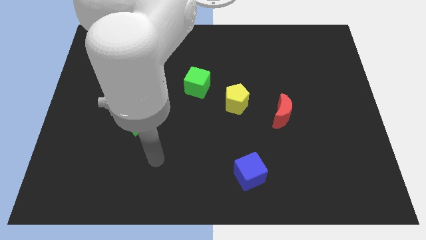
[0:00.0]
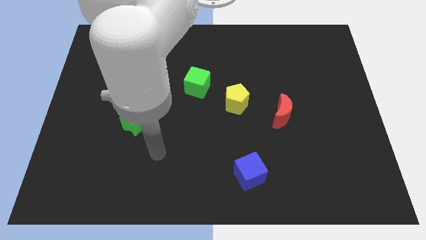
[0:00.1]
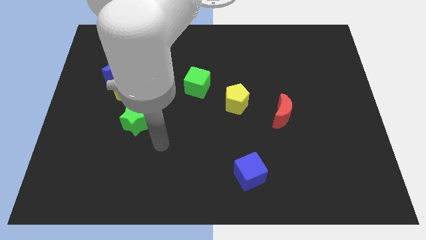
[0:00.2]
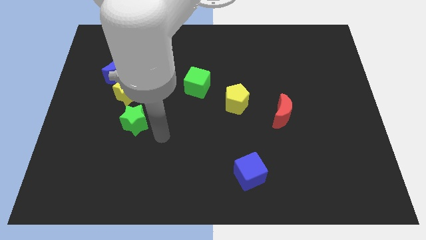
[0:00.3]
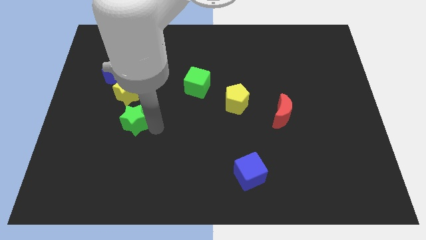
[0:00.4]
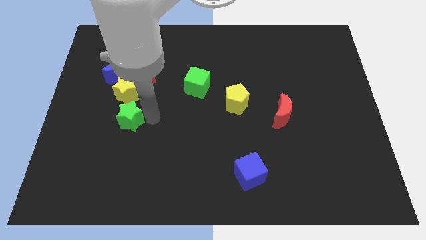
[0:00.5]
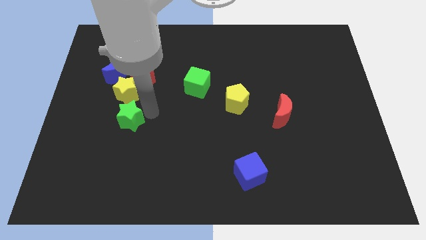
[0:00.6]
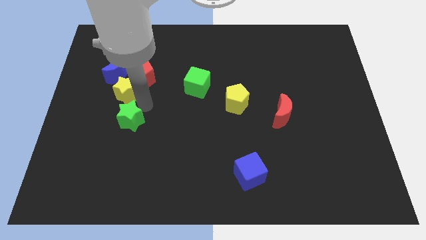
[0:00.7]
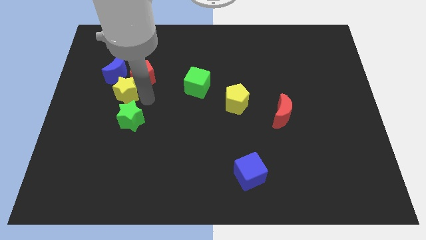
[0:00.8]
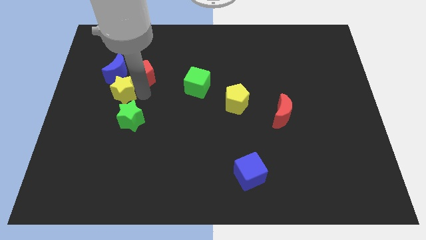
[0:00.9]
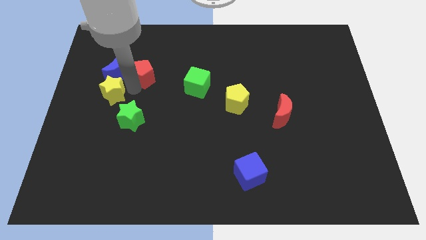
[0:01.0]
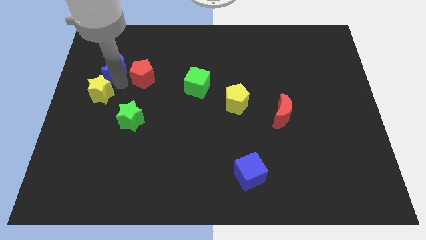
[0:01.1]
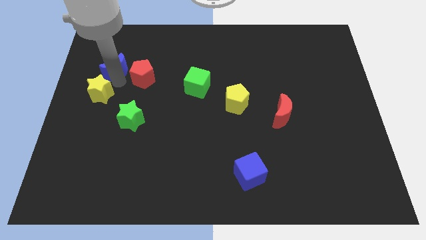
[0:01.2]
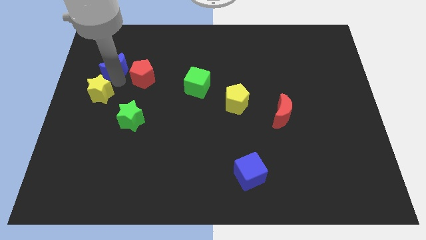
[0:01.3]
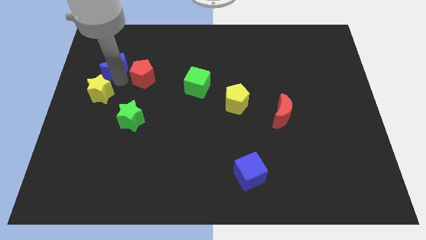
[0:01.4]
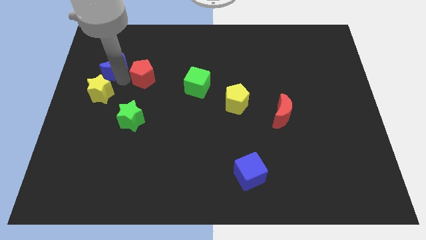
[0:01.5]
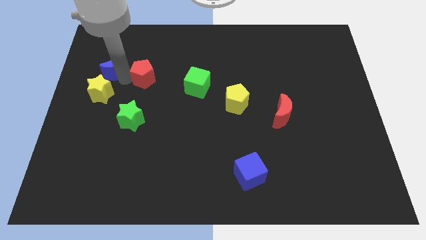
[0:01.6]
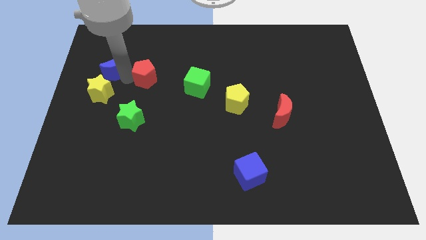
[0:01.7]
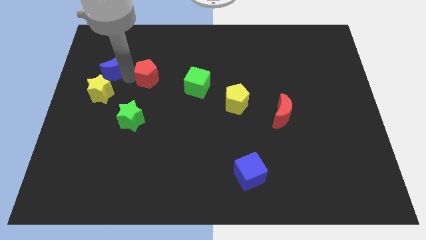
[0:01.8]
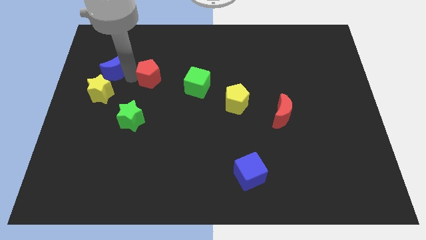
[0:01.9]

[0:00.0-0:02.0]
move the red pentagon away from the yellow star and blue moon

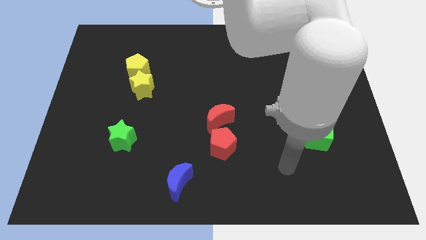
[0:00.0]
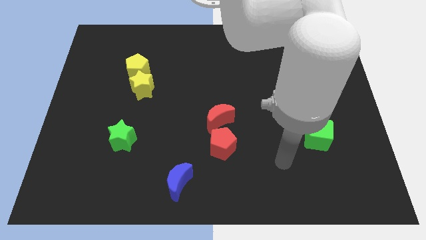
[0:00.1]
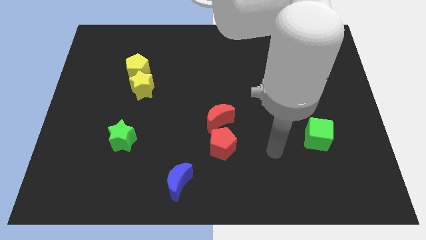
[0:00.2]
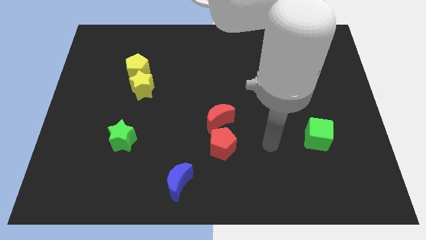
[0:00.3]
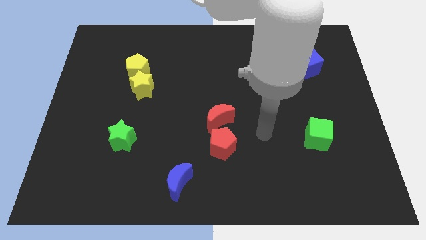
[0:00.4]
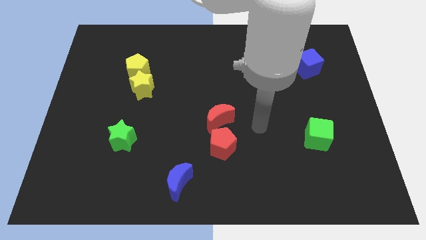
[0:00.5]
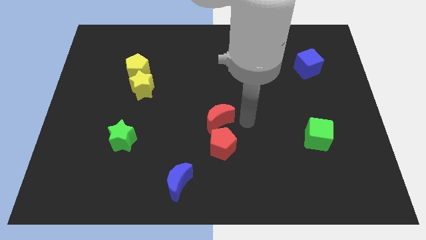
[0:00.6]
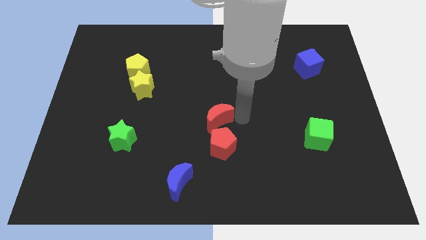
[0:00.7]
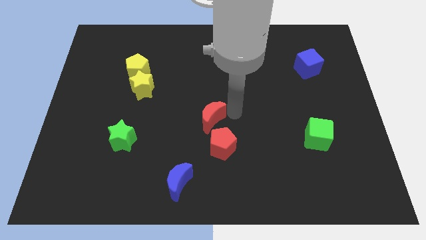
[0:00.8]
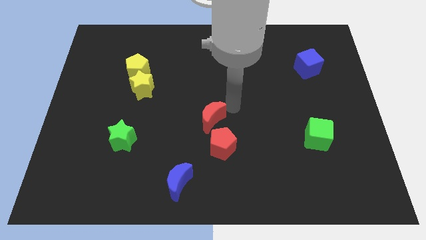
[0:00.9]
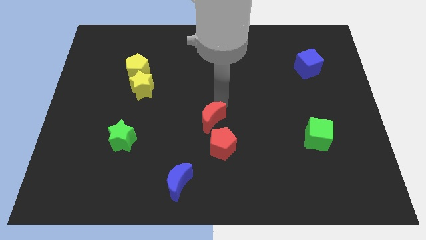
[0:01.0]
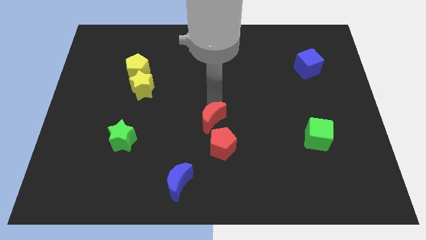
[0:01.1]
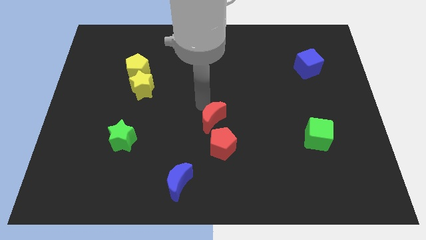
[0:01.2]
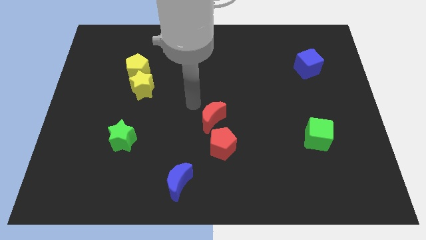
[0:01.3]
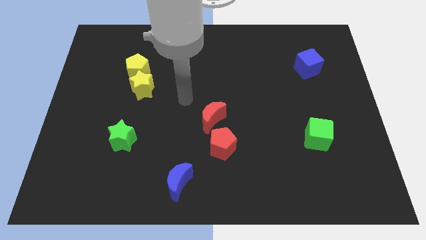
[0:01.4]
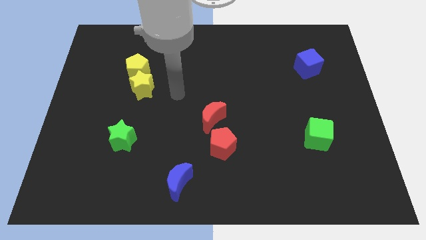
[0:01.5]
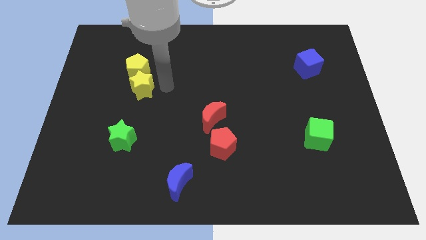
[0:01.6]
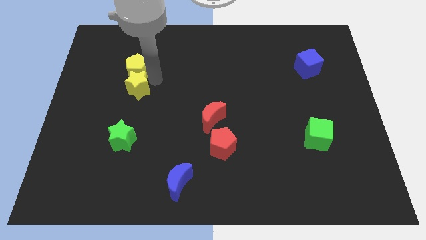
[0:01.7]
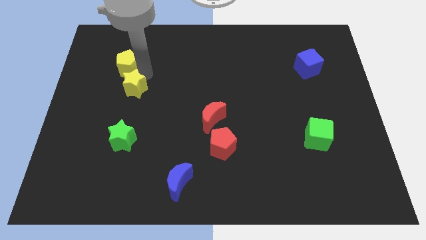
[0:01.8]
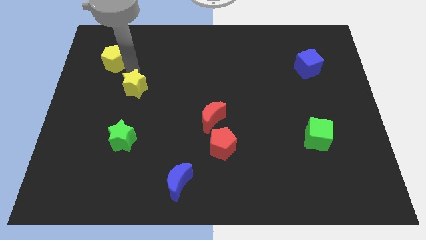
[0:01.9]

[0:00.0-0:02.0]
separate the yellow star from the yellow pentagon

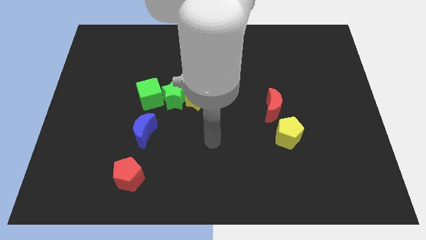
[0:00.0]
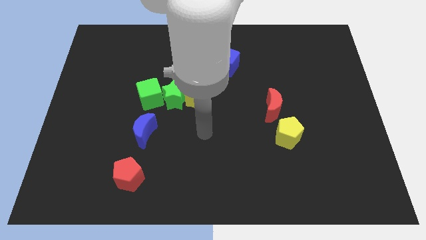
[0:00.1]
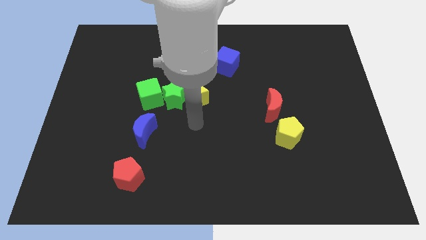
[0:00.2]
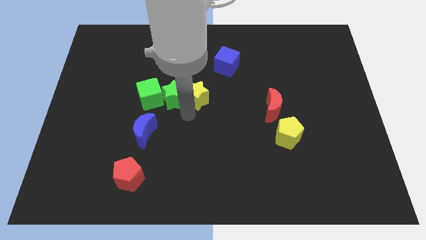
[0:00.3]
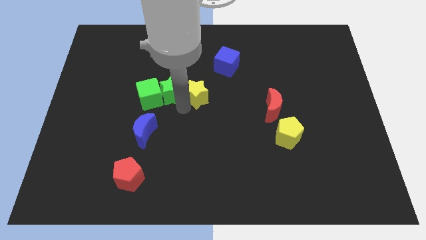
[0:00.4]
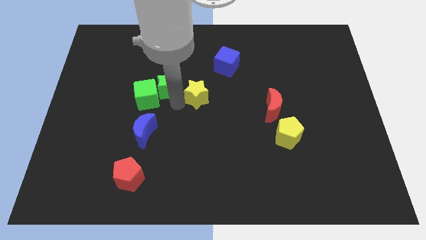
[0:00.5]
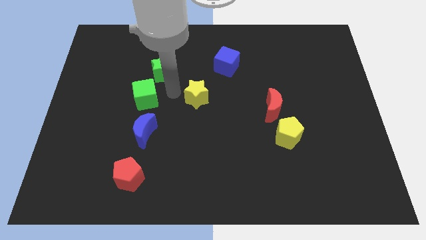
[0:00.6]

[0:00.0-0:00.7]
separate the yellow star from the green star

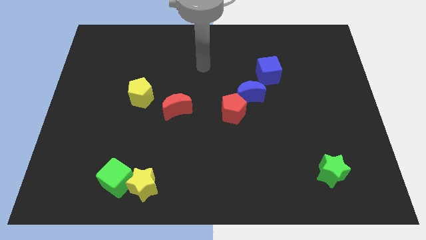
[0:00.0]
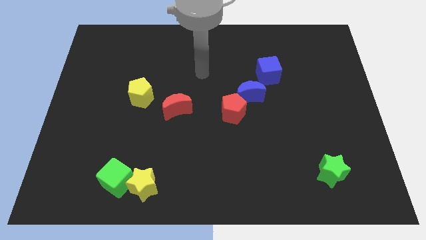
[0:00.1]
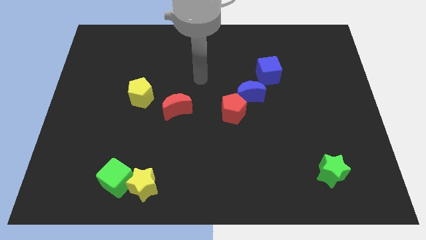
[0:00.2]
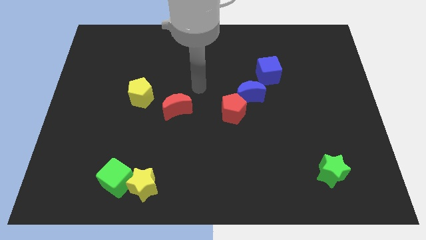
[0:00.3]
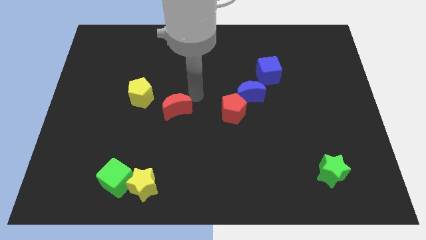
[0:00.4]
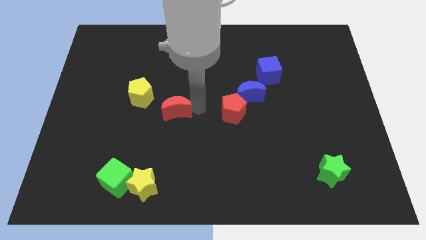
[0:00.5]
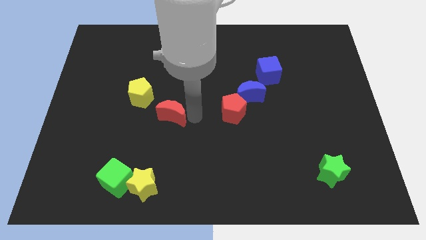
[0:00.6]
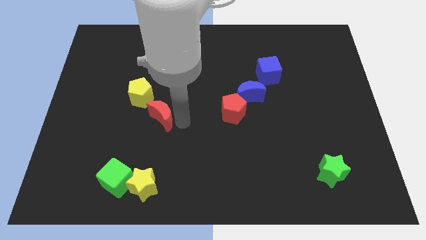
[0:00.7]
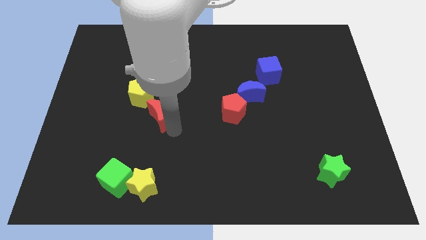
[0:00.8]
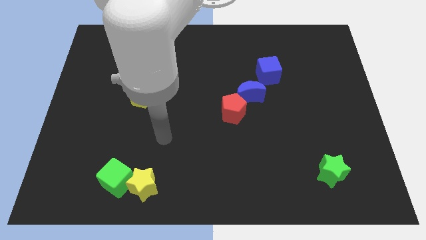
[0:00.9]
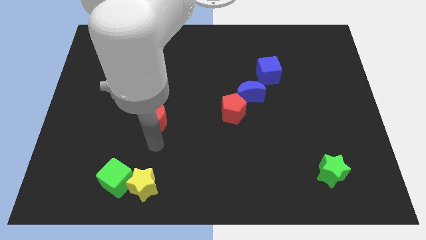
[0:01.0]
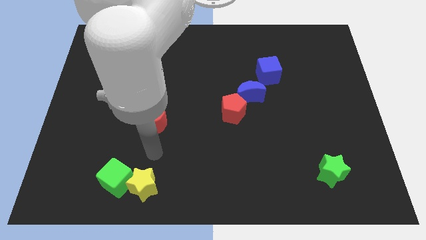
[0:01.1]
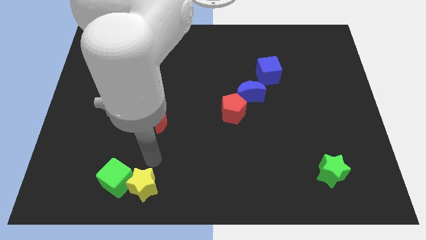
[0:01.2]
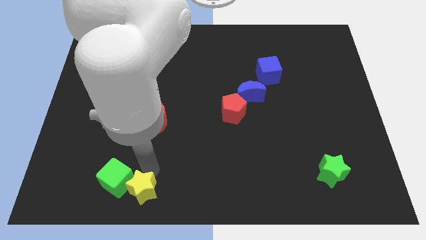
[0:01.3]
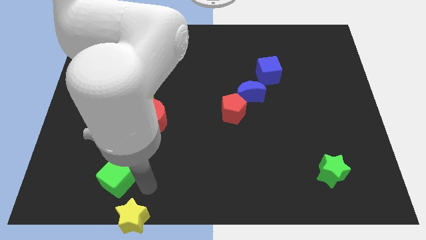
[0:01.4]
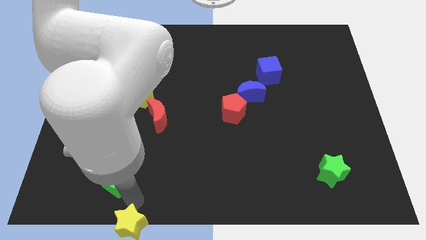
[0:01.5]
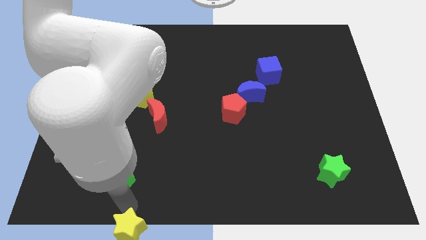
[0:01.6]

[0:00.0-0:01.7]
separate the green cube from the yellow star

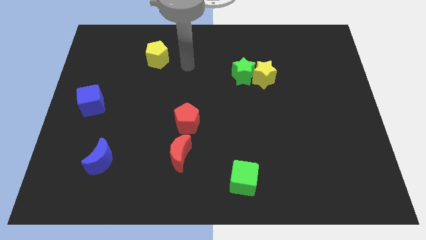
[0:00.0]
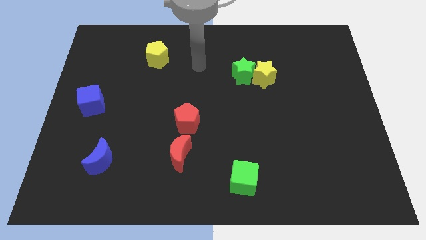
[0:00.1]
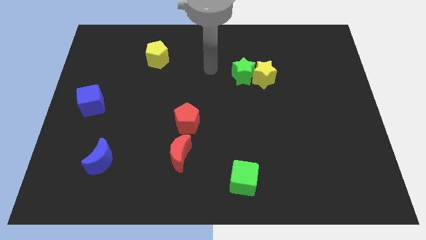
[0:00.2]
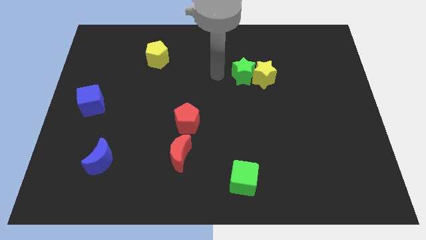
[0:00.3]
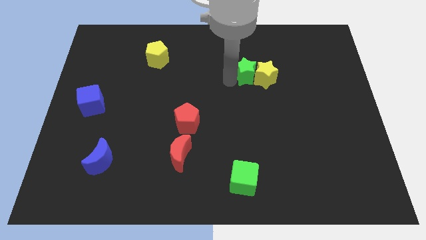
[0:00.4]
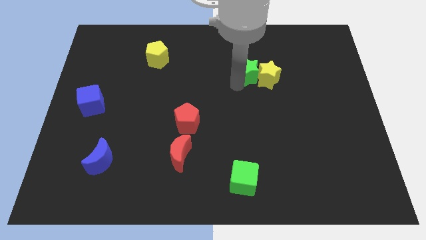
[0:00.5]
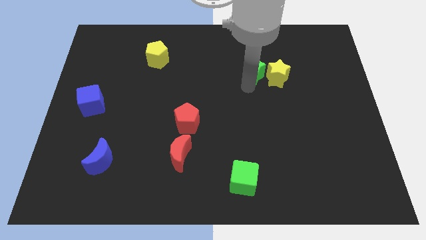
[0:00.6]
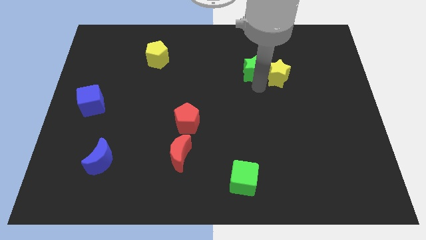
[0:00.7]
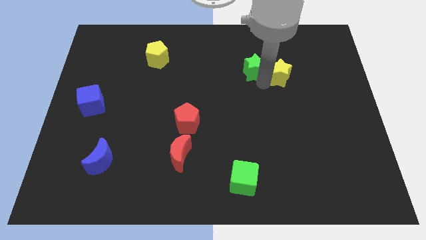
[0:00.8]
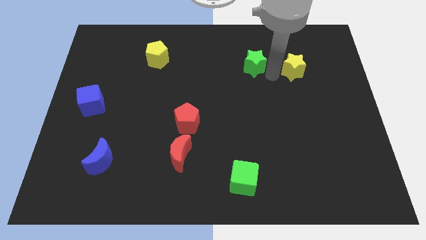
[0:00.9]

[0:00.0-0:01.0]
move the green star away from the yellow star

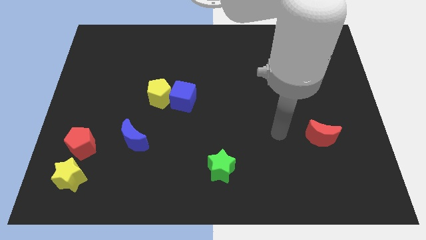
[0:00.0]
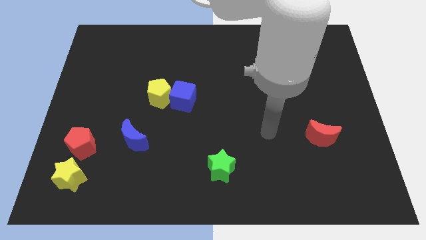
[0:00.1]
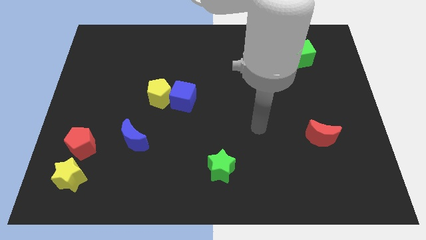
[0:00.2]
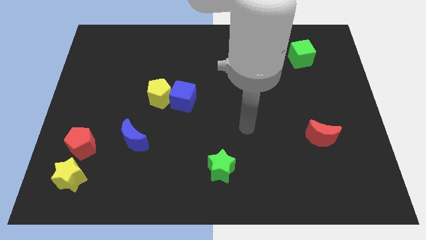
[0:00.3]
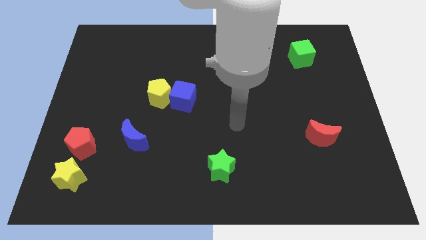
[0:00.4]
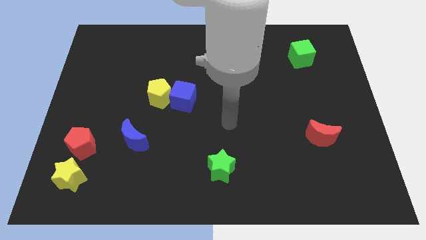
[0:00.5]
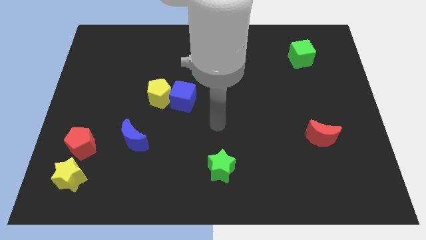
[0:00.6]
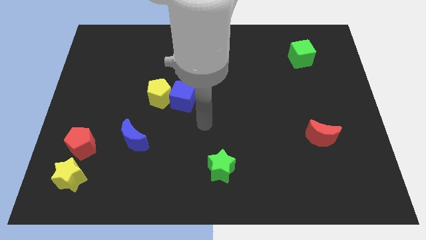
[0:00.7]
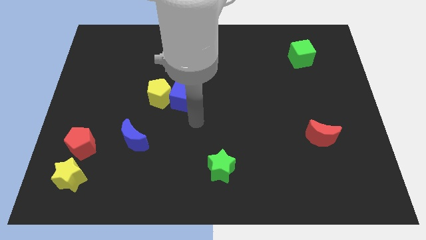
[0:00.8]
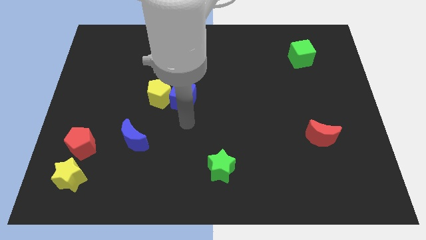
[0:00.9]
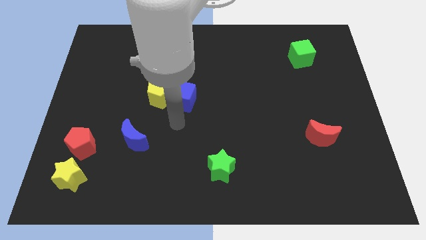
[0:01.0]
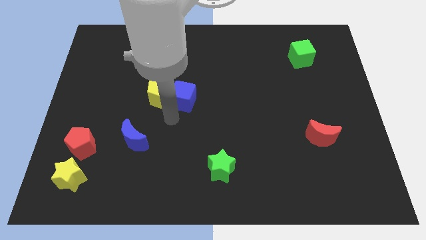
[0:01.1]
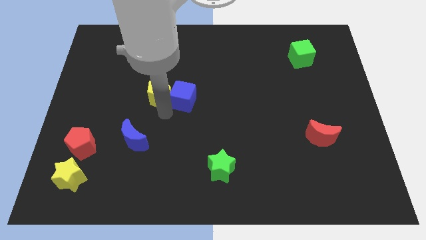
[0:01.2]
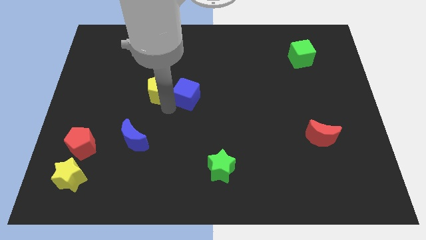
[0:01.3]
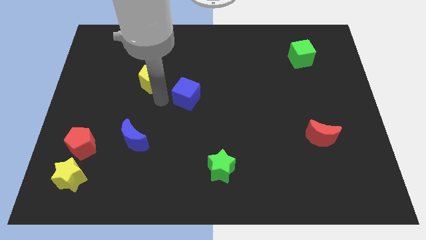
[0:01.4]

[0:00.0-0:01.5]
pull the blue cube apart from the yellow pentagon

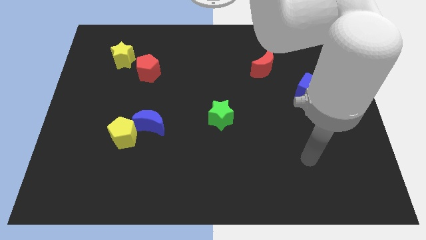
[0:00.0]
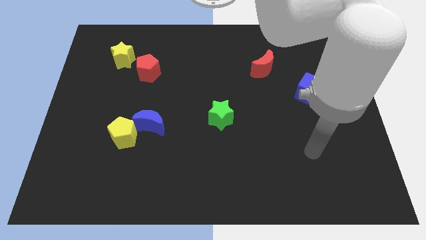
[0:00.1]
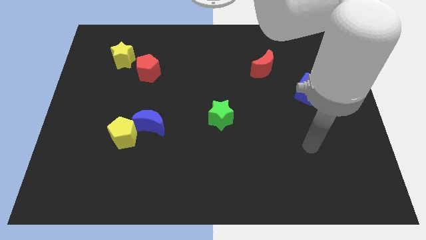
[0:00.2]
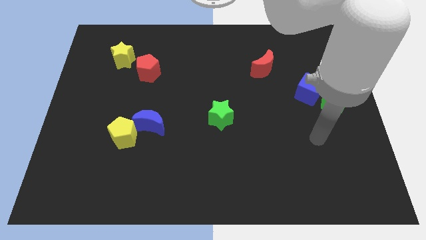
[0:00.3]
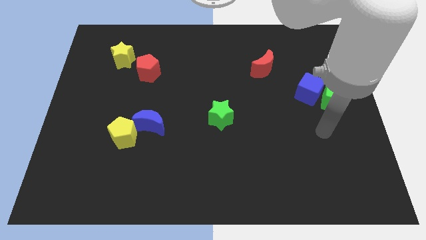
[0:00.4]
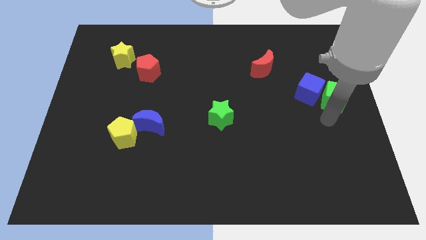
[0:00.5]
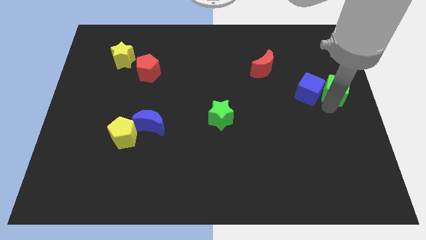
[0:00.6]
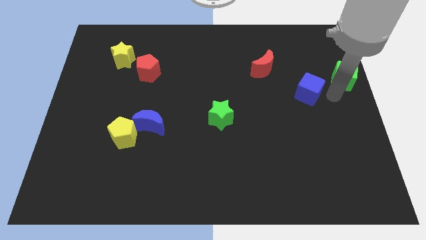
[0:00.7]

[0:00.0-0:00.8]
move the blue cube away from the green cube
